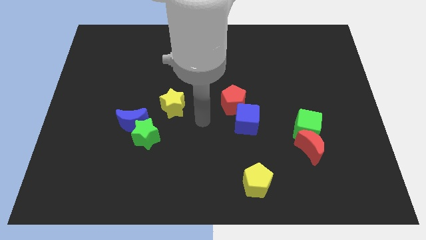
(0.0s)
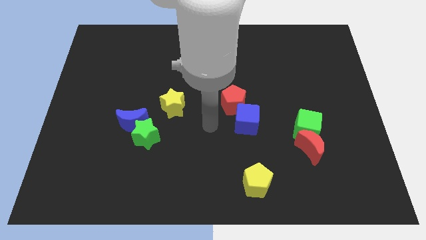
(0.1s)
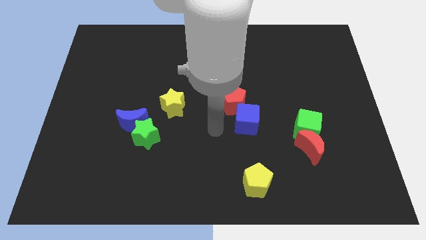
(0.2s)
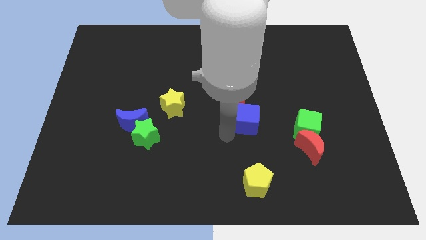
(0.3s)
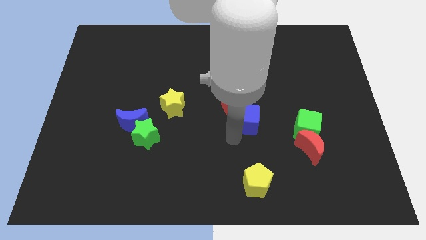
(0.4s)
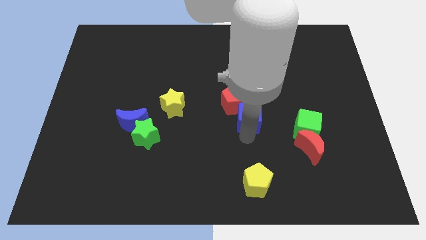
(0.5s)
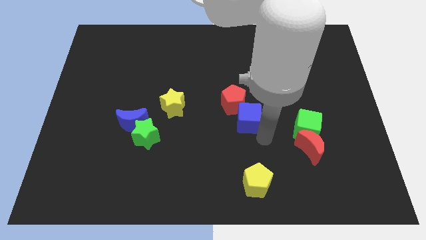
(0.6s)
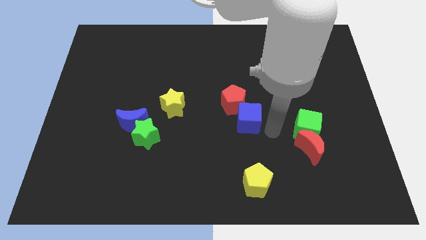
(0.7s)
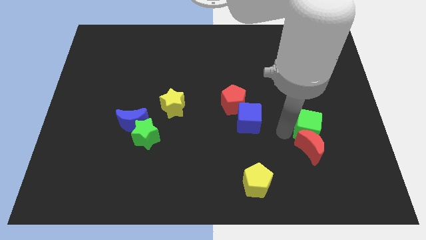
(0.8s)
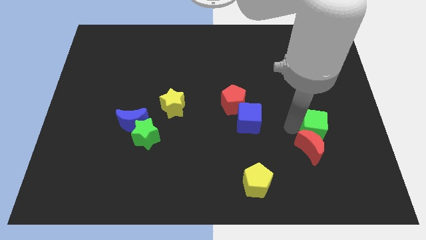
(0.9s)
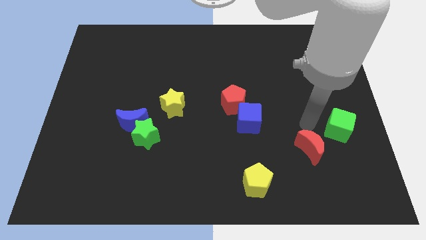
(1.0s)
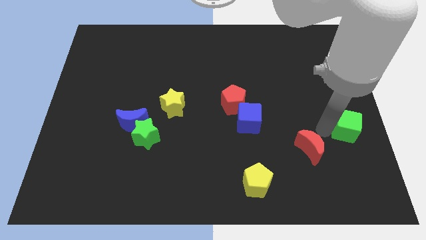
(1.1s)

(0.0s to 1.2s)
move the red moon away from the green cube

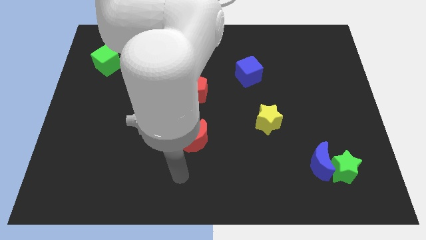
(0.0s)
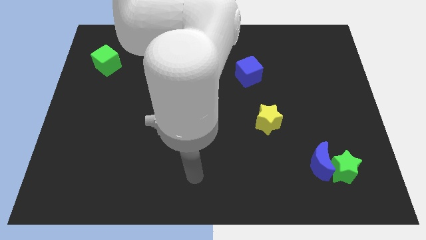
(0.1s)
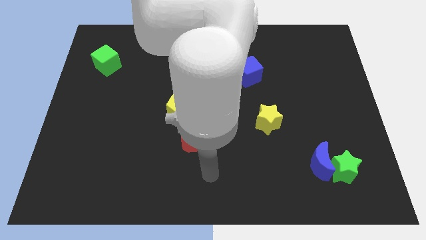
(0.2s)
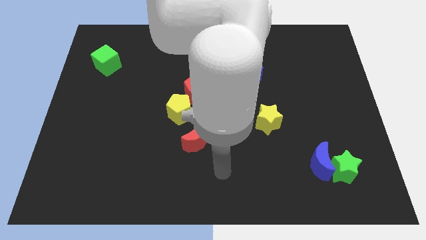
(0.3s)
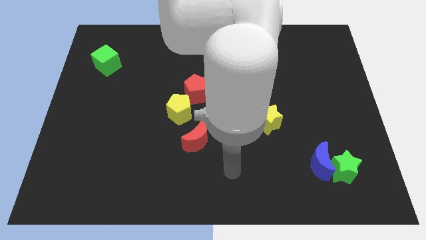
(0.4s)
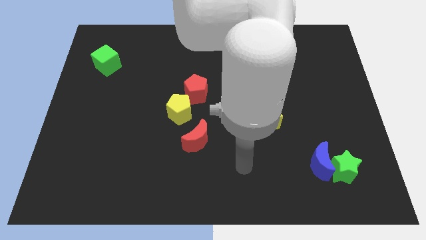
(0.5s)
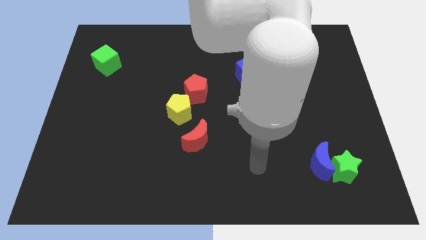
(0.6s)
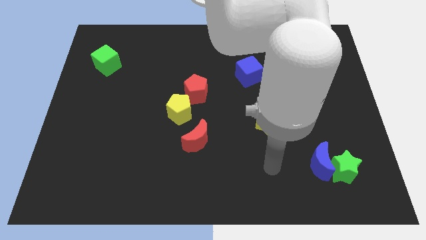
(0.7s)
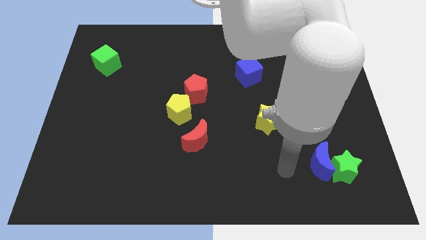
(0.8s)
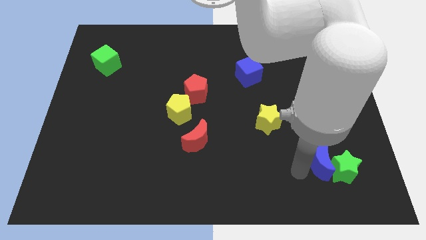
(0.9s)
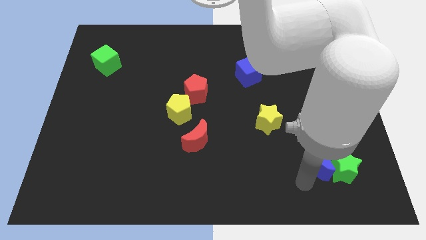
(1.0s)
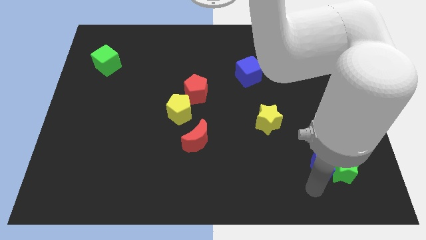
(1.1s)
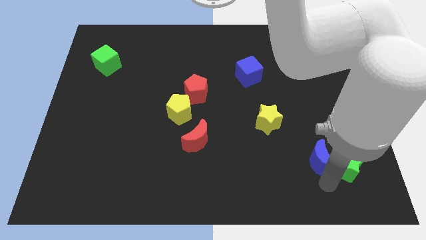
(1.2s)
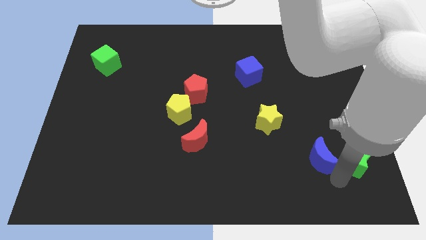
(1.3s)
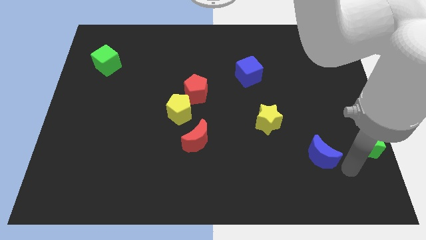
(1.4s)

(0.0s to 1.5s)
move the blue moon away from the green star

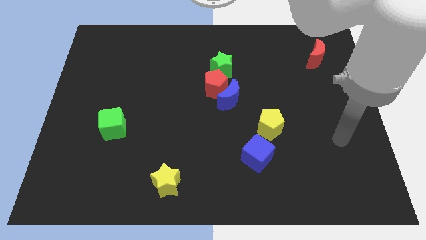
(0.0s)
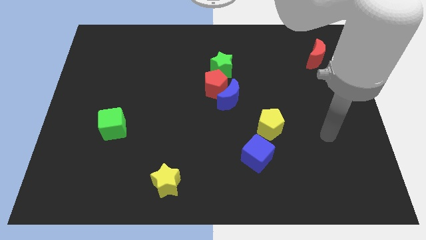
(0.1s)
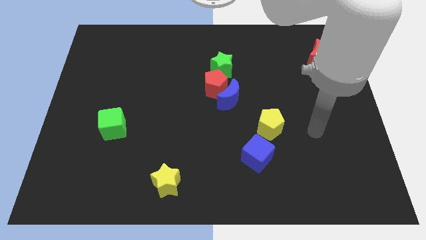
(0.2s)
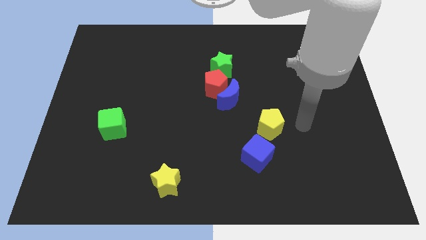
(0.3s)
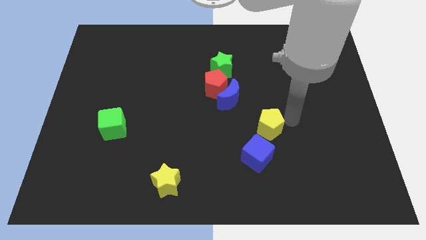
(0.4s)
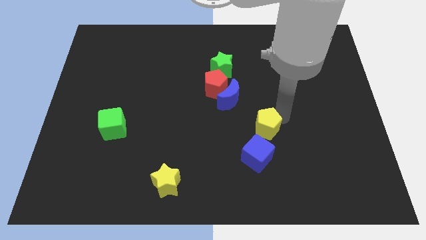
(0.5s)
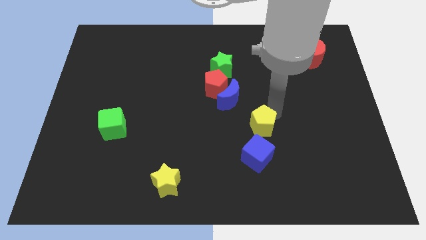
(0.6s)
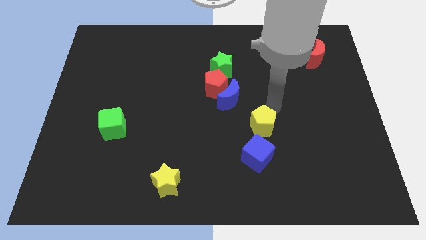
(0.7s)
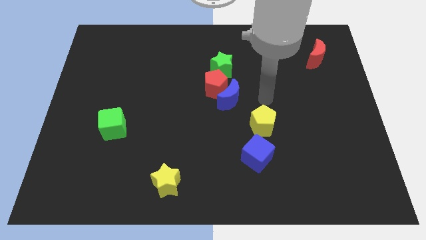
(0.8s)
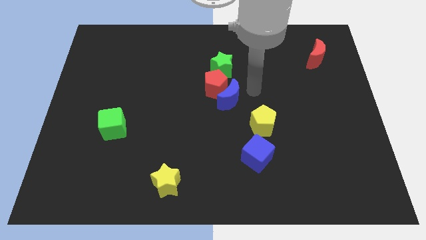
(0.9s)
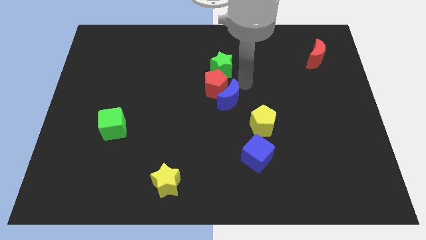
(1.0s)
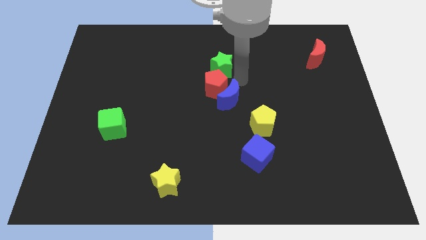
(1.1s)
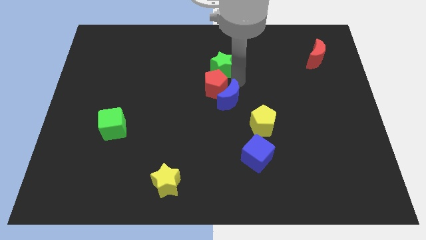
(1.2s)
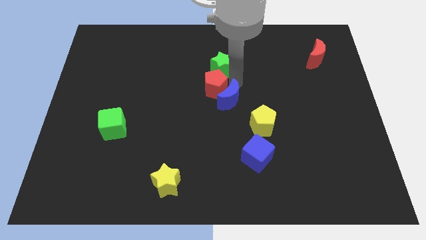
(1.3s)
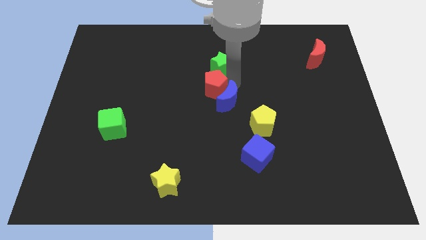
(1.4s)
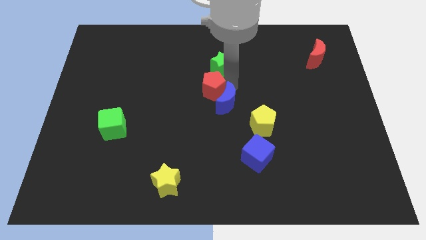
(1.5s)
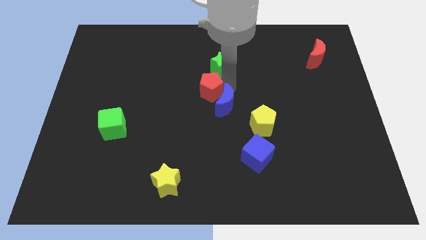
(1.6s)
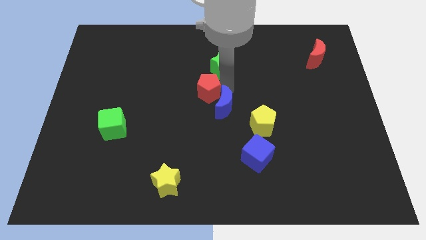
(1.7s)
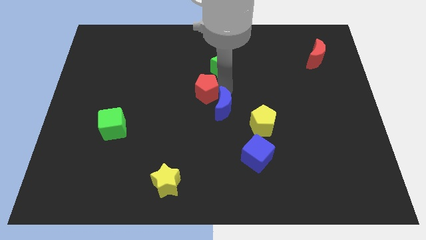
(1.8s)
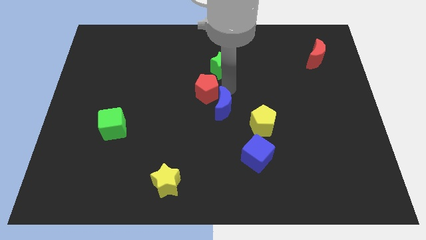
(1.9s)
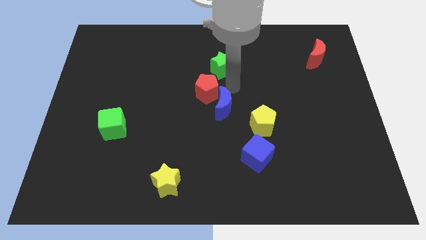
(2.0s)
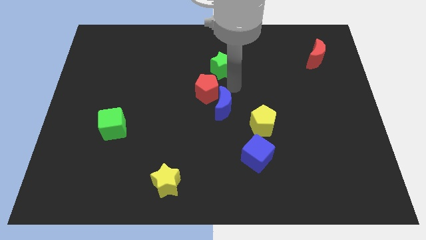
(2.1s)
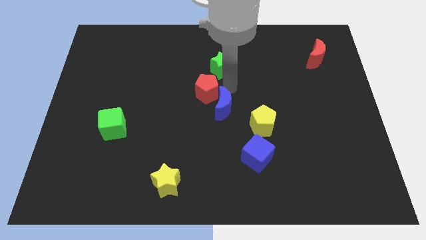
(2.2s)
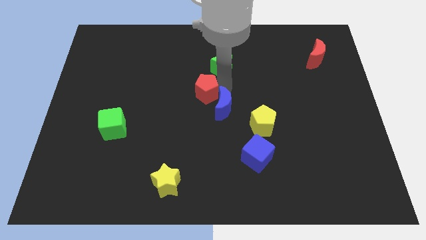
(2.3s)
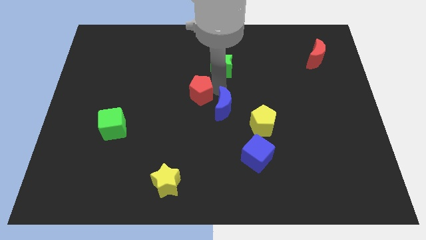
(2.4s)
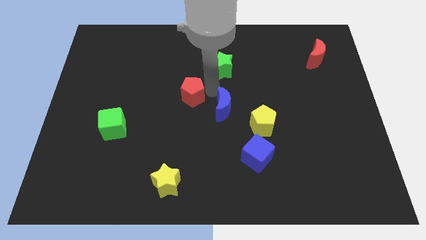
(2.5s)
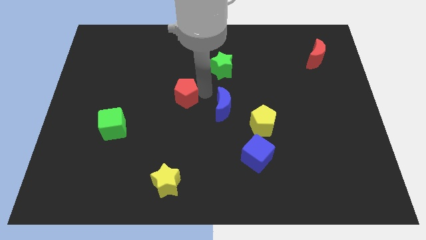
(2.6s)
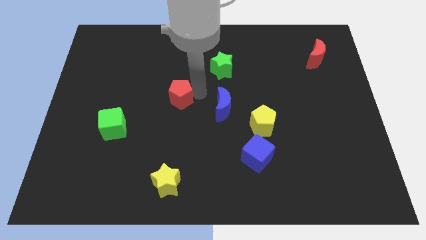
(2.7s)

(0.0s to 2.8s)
move the red pentagon away from the blue moon and green star

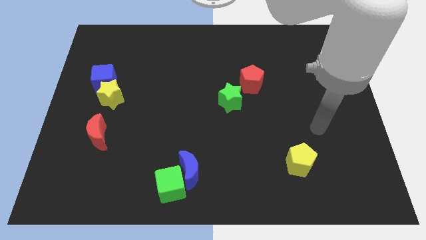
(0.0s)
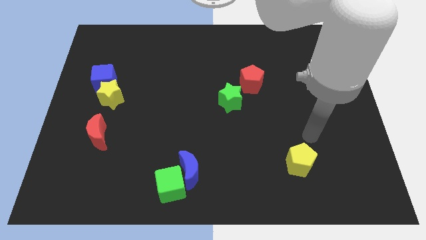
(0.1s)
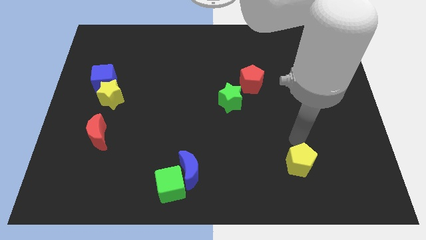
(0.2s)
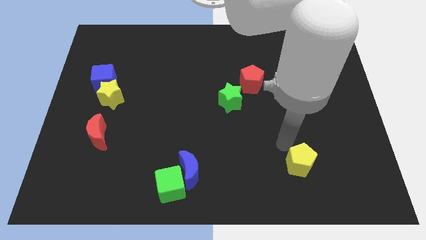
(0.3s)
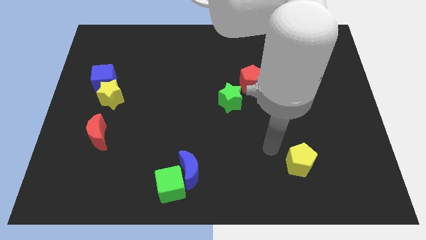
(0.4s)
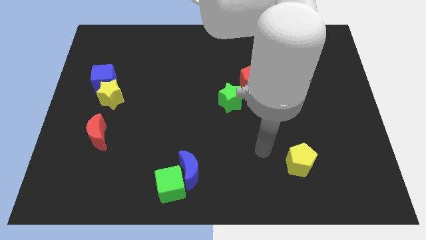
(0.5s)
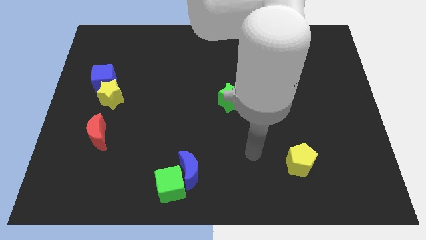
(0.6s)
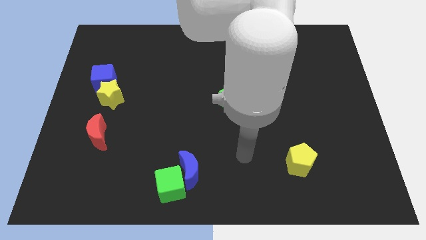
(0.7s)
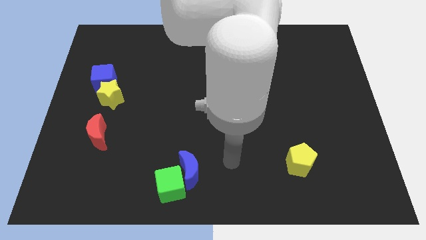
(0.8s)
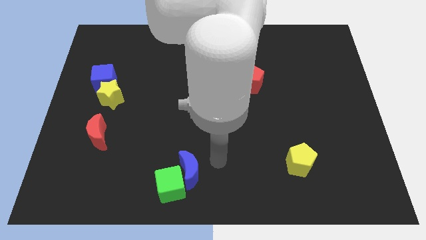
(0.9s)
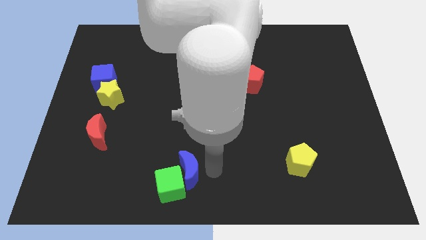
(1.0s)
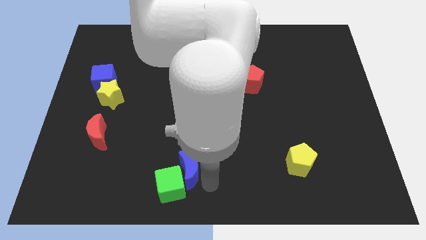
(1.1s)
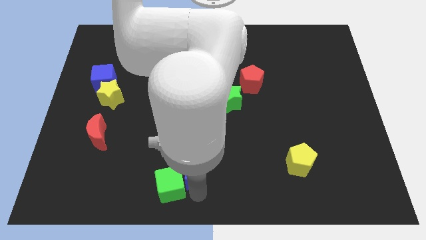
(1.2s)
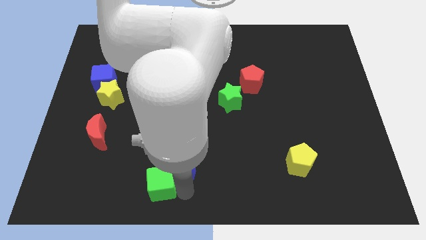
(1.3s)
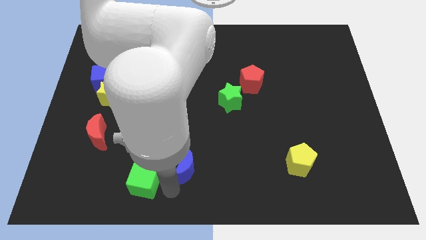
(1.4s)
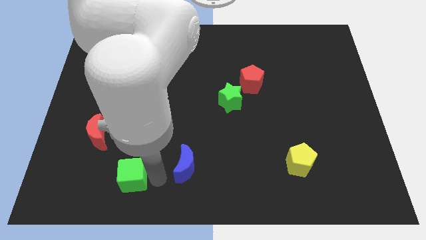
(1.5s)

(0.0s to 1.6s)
separate the blue moon from the green cube

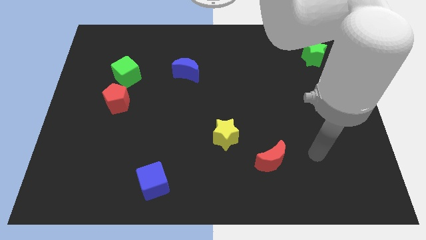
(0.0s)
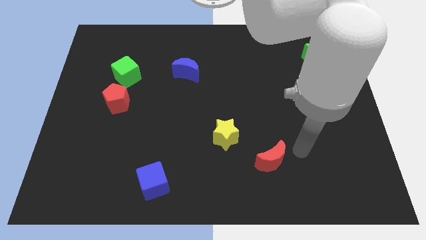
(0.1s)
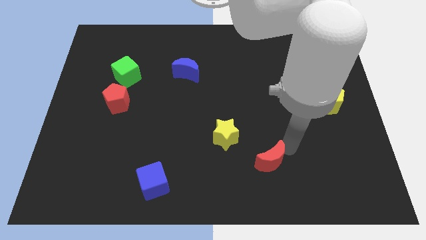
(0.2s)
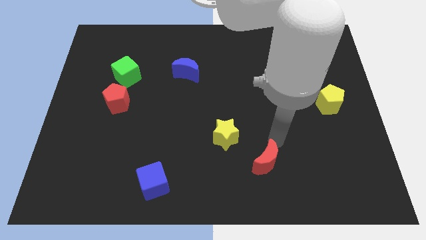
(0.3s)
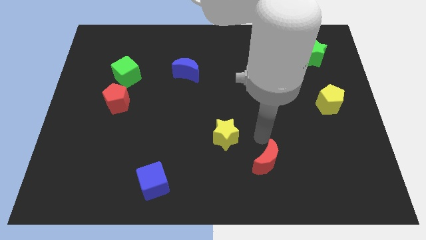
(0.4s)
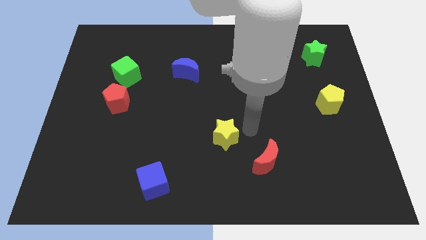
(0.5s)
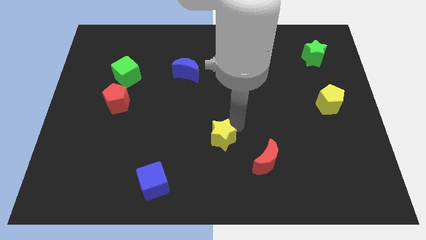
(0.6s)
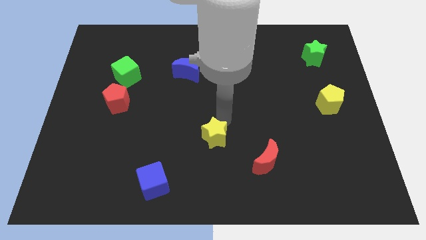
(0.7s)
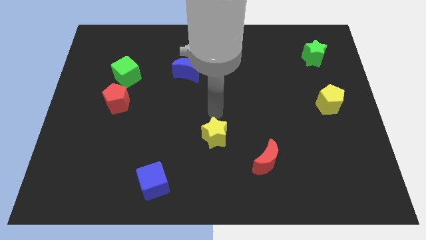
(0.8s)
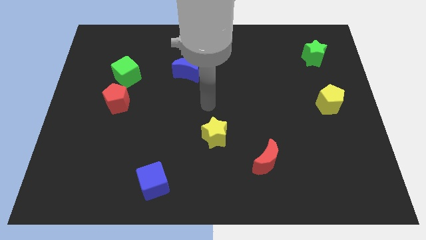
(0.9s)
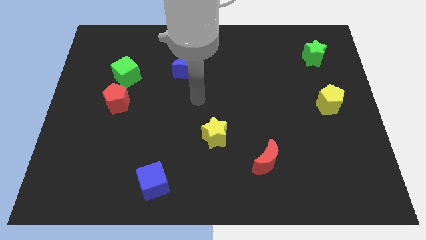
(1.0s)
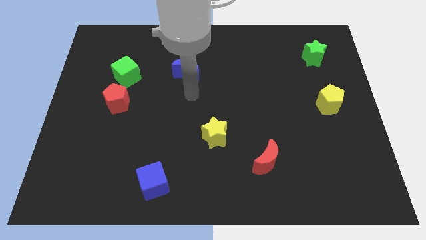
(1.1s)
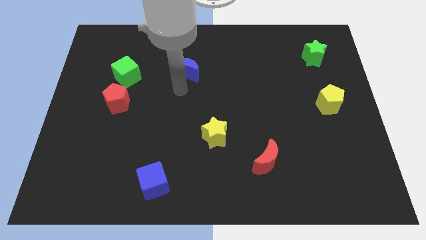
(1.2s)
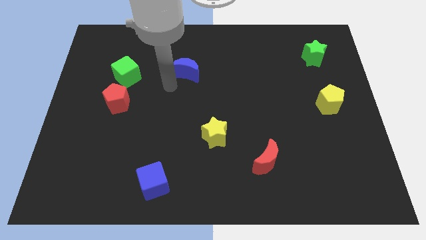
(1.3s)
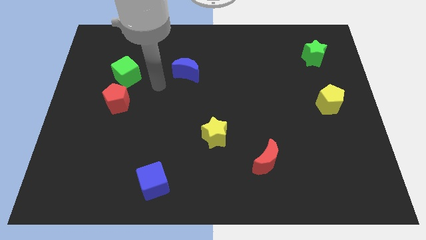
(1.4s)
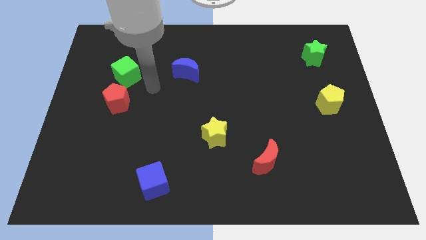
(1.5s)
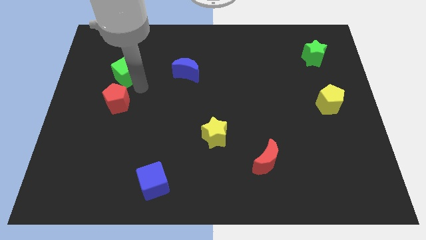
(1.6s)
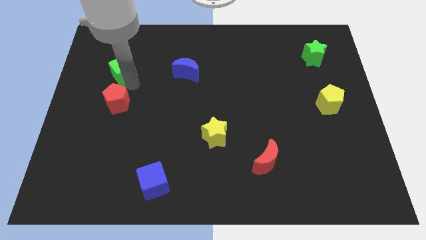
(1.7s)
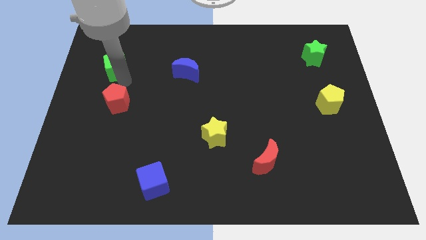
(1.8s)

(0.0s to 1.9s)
separate the red pentagon from the green cube

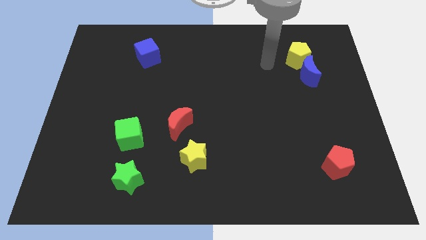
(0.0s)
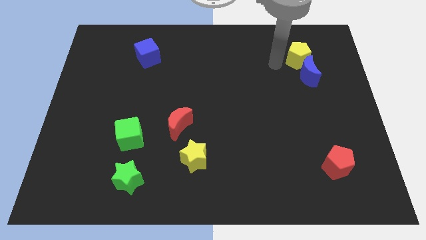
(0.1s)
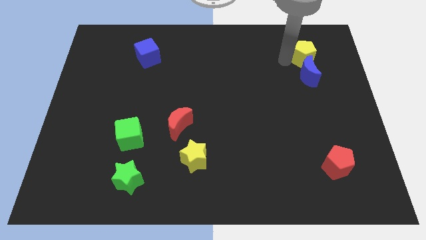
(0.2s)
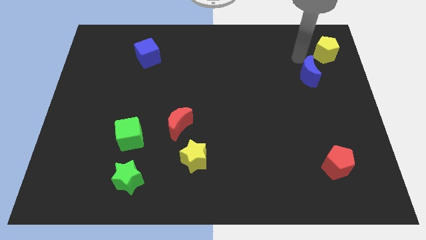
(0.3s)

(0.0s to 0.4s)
separate the blue moon from the yellow pentagon
